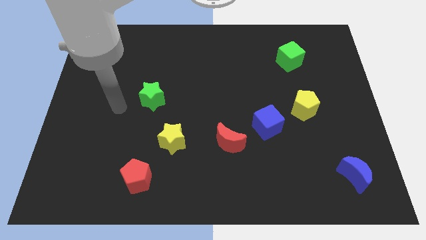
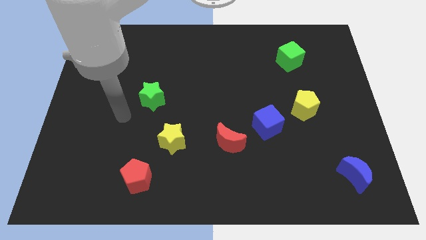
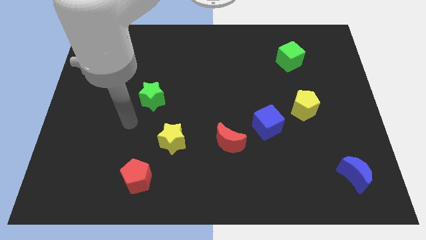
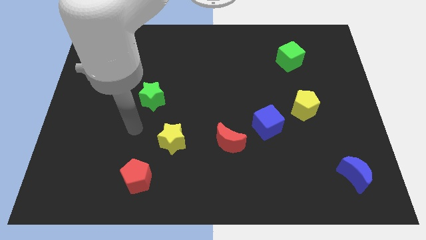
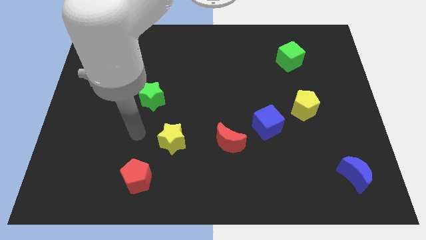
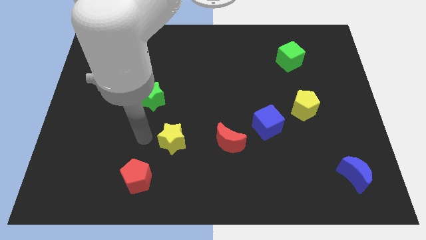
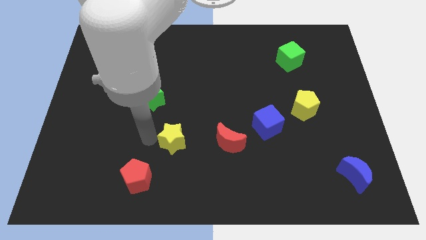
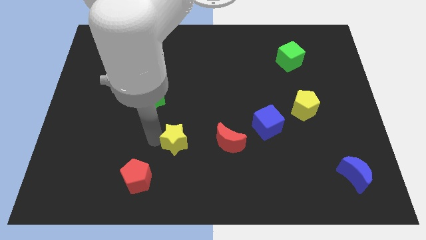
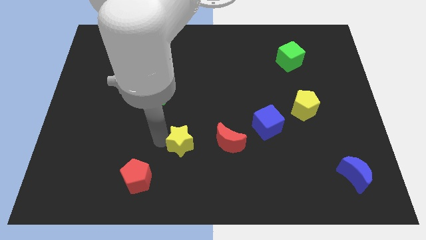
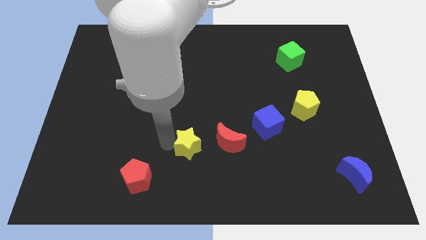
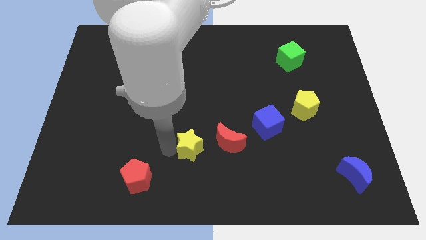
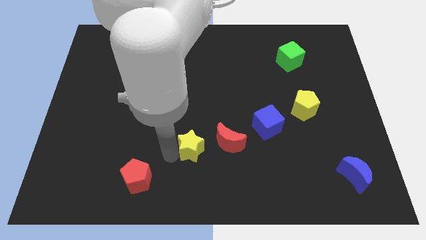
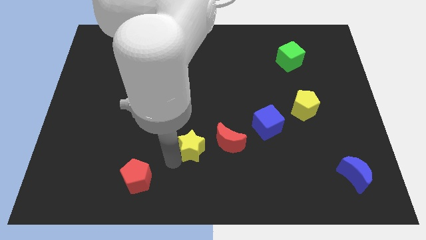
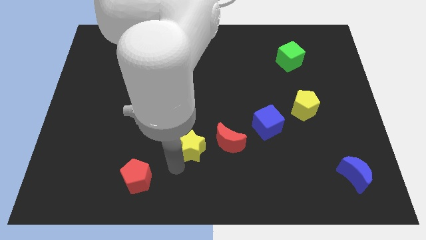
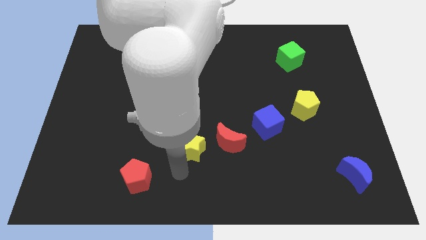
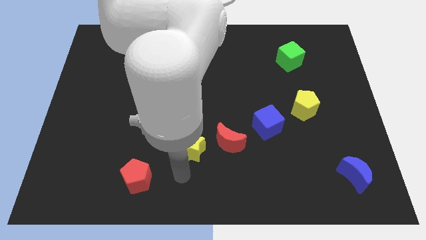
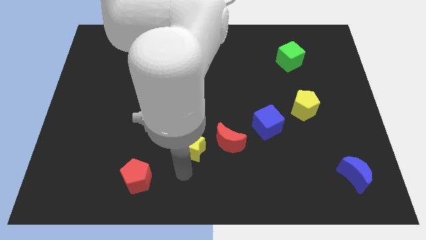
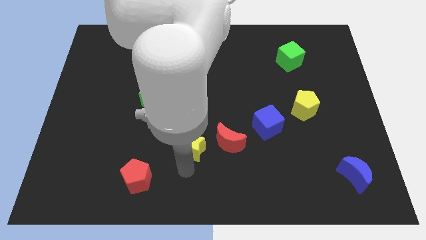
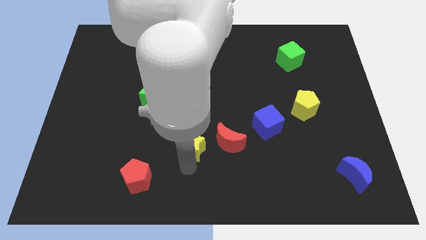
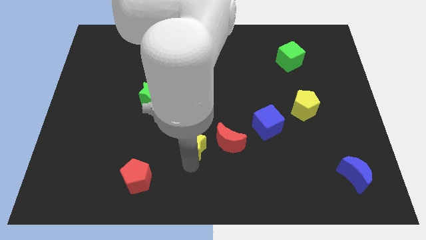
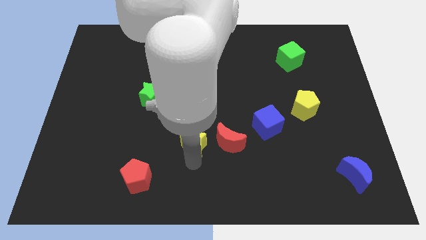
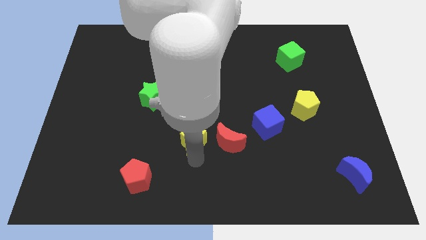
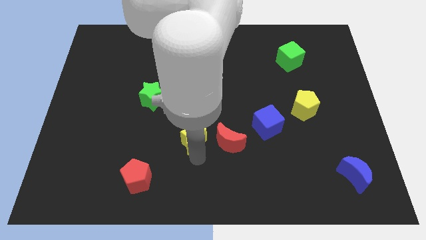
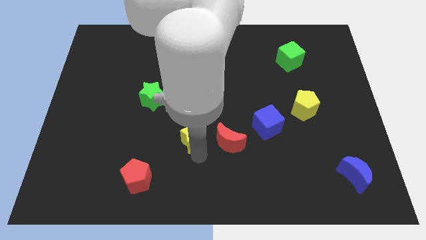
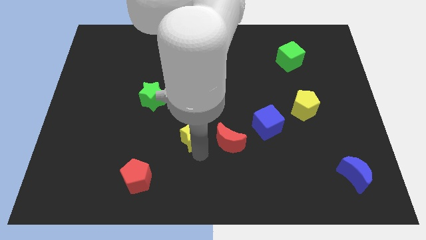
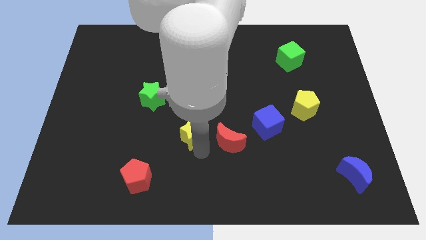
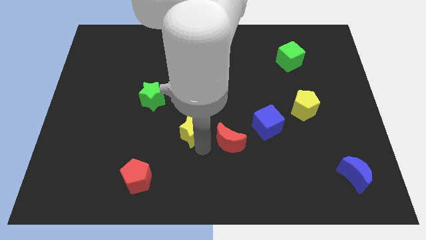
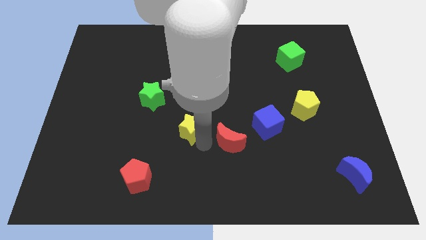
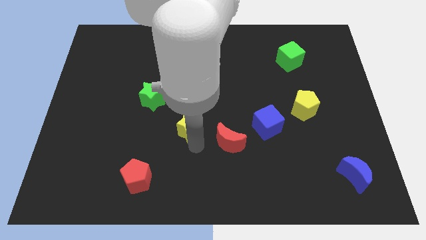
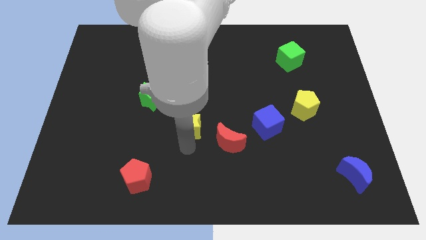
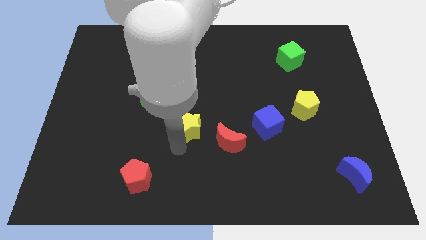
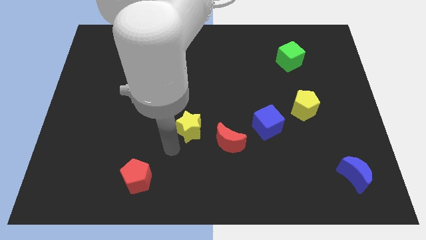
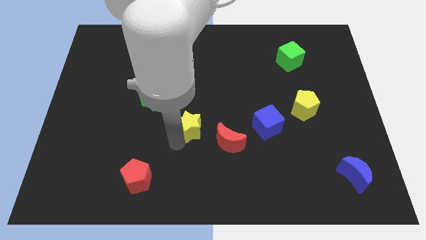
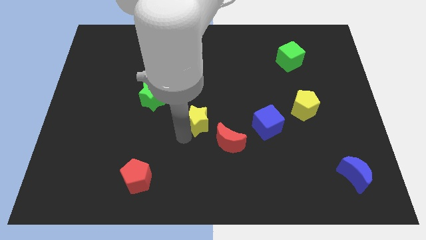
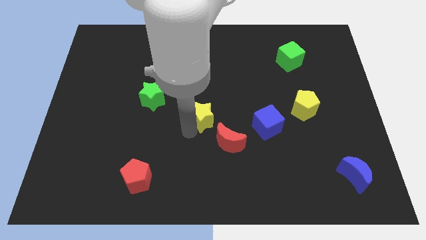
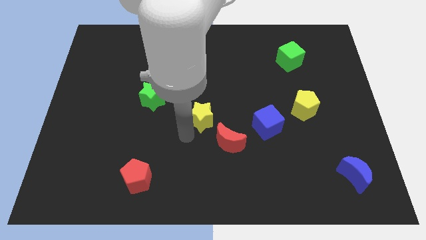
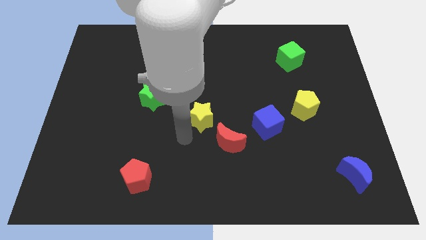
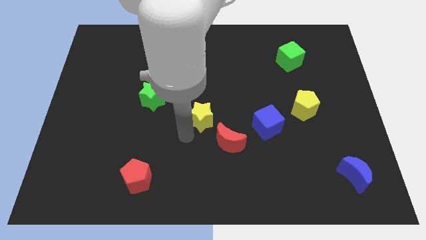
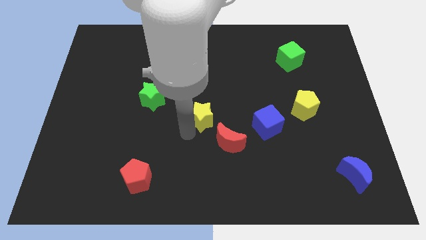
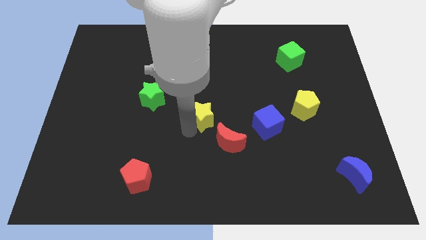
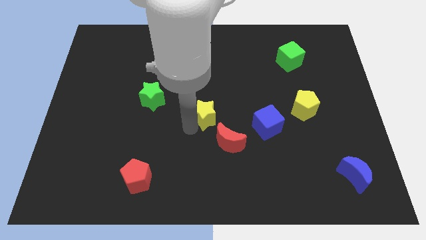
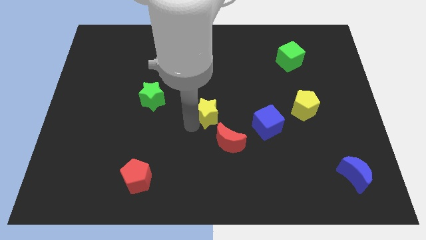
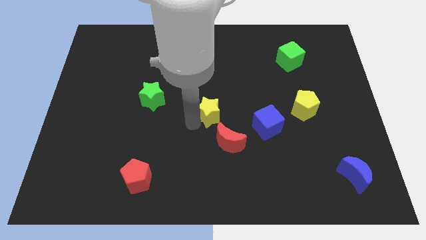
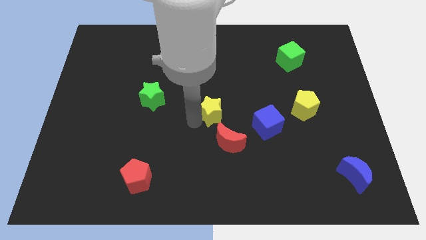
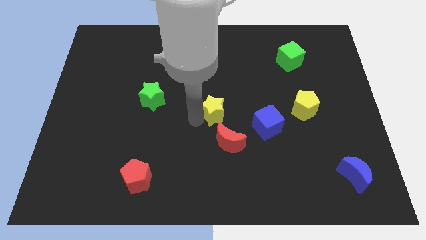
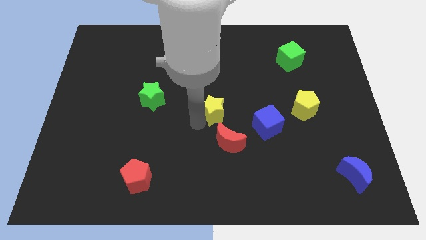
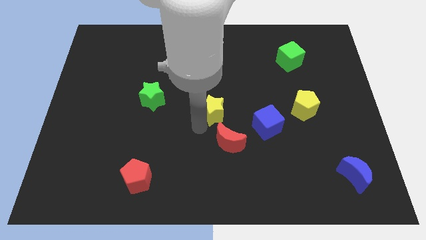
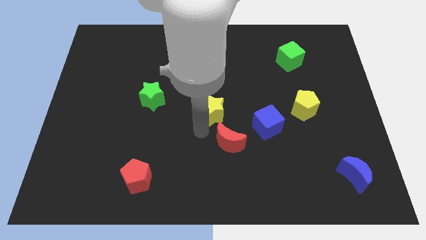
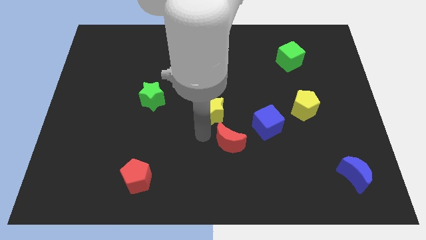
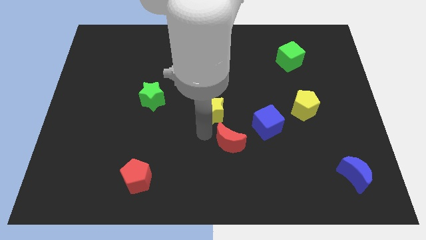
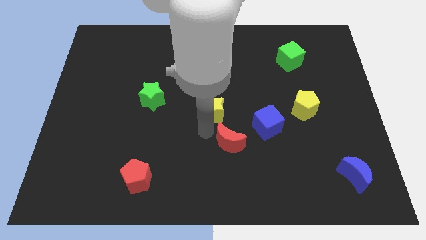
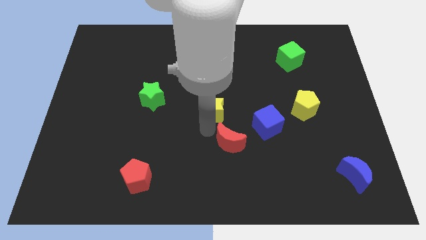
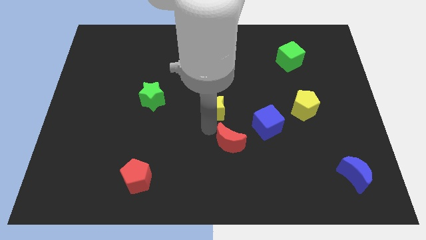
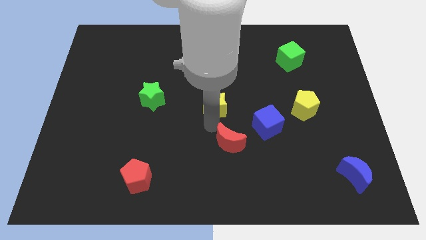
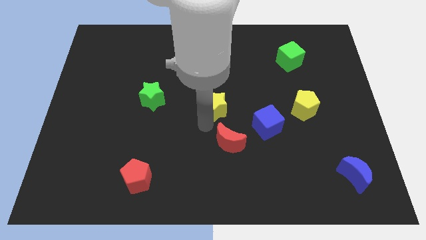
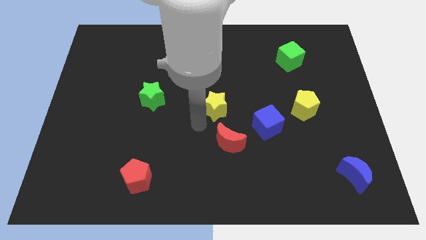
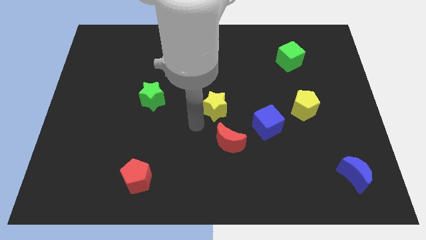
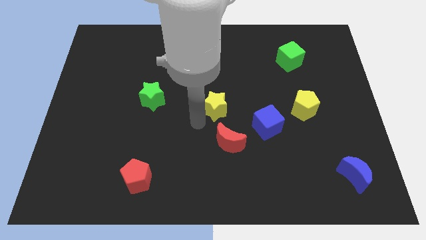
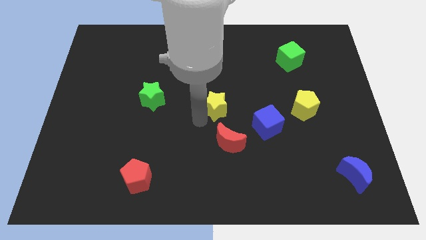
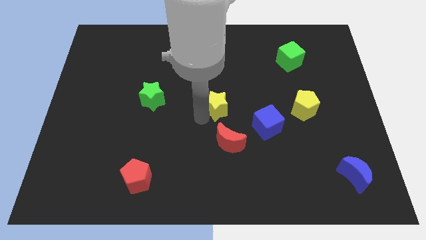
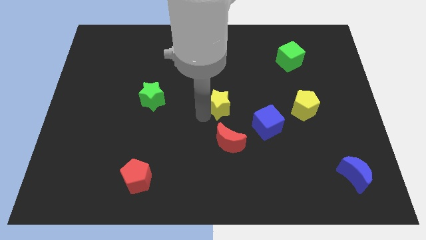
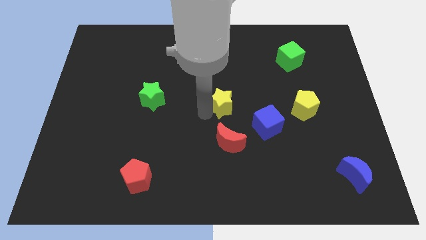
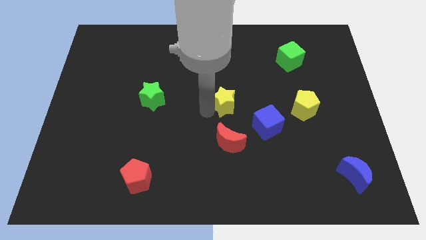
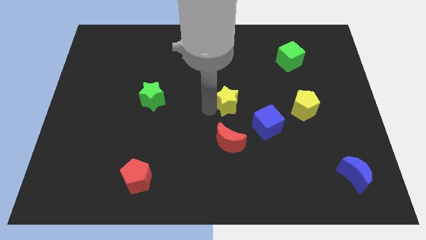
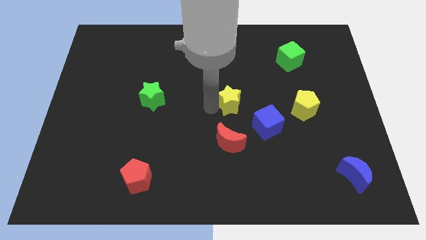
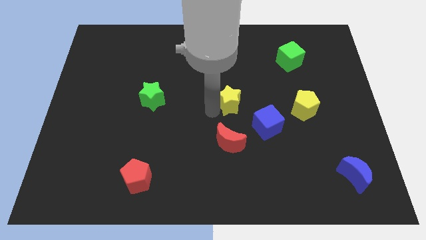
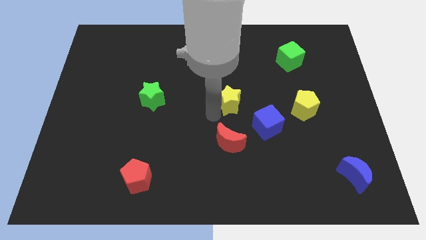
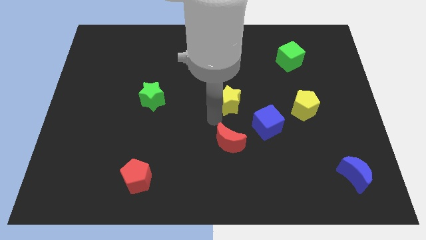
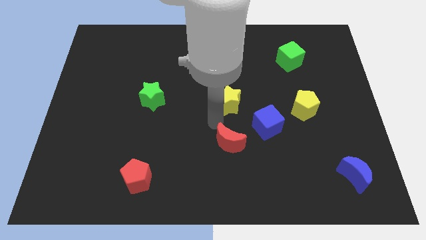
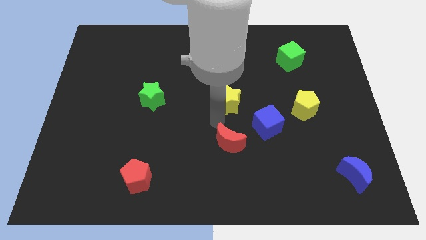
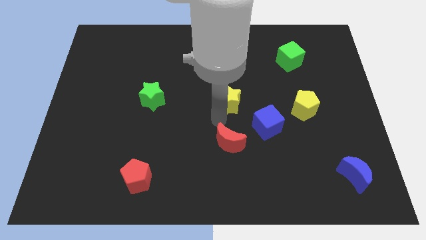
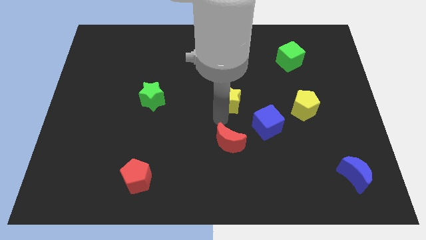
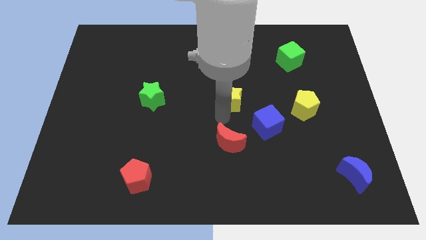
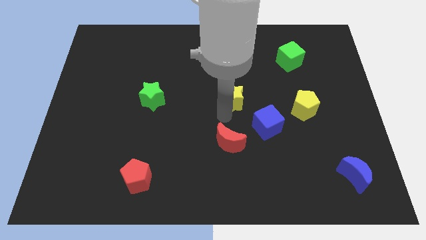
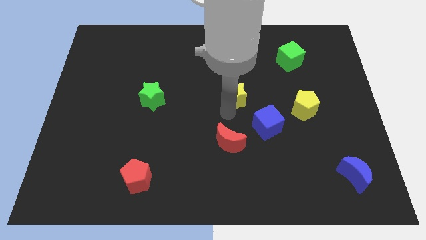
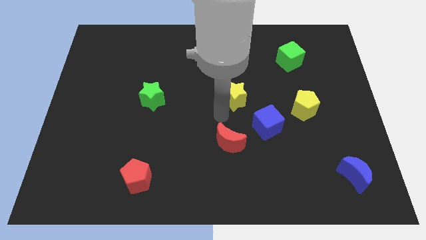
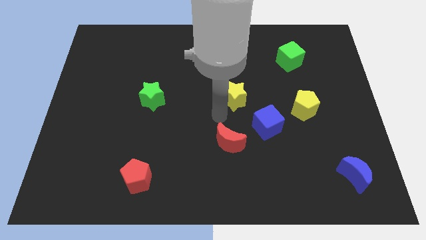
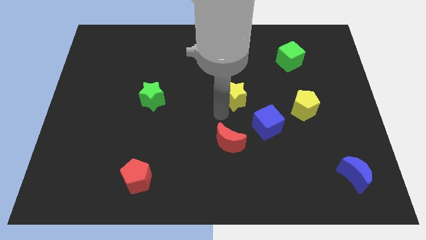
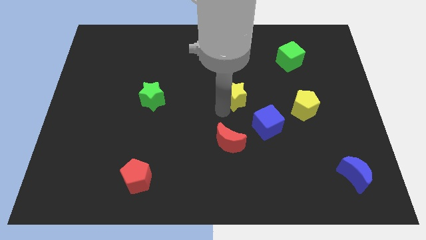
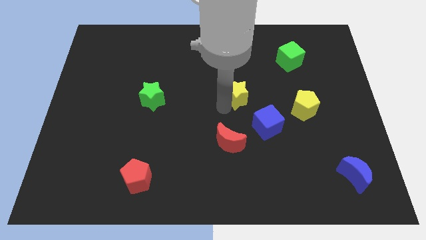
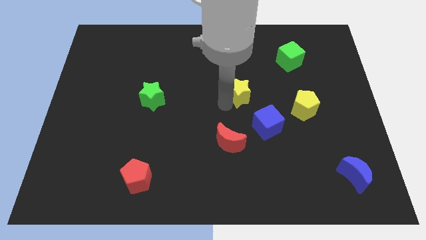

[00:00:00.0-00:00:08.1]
move the yellow star upwards and then right
